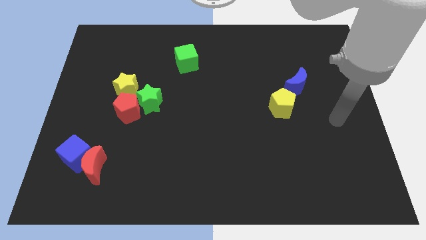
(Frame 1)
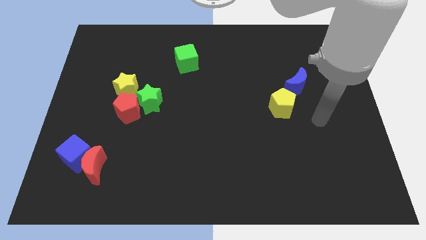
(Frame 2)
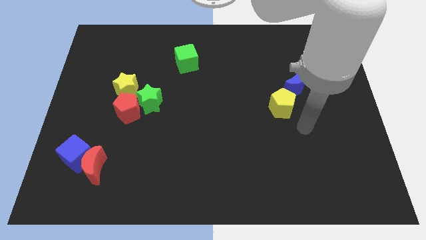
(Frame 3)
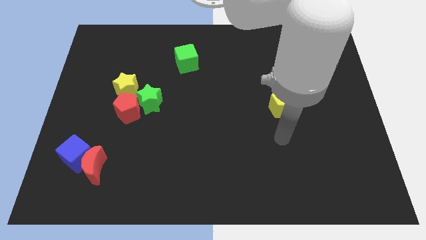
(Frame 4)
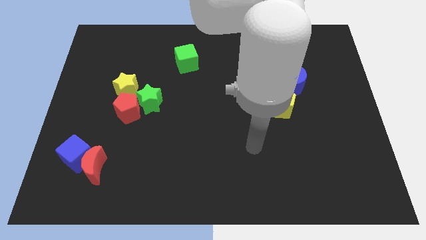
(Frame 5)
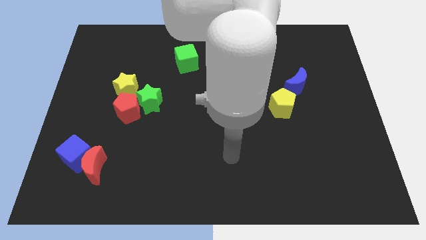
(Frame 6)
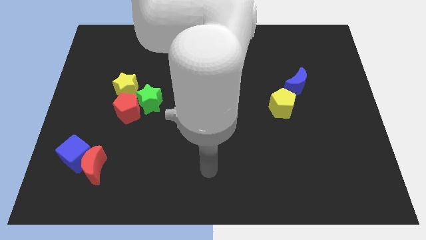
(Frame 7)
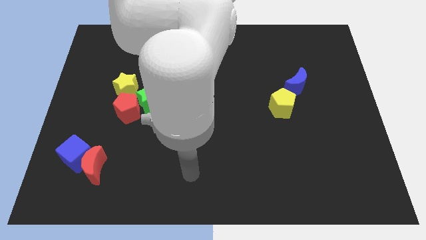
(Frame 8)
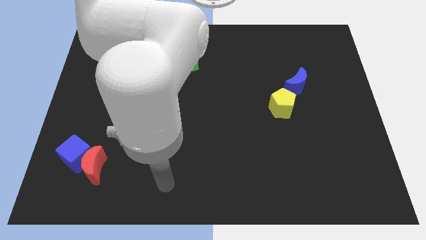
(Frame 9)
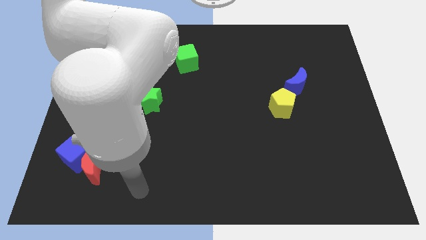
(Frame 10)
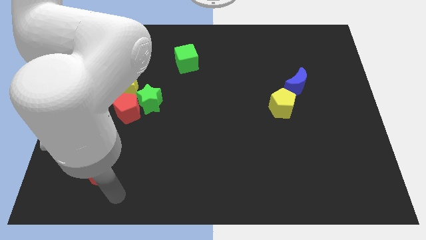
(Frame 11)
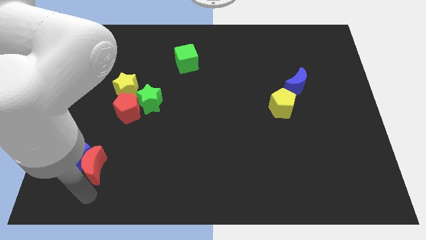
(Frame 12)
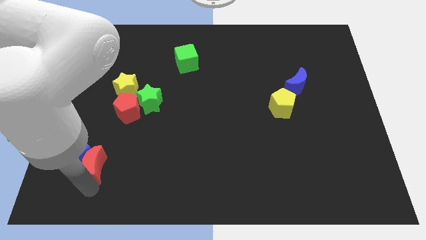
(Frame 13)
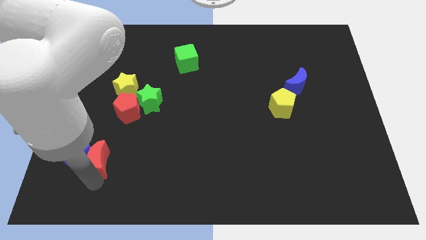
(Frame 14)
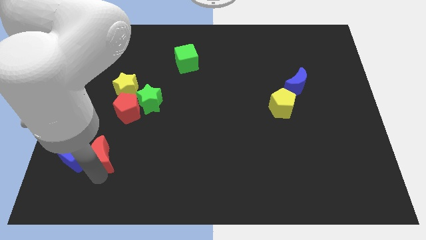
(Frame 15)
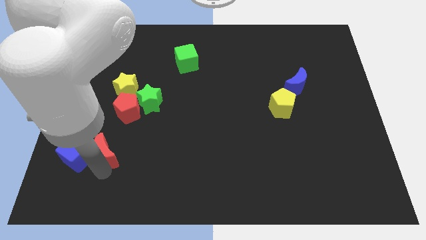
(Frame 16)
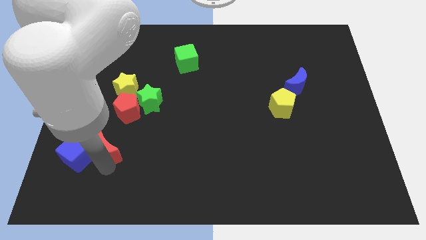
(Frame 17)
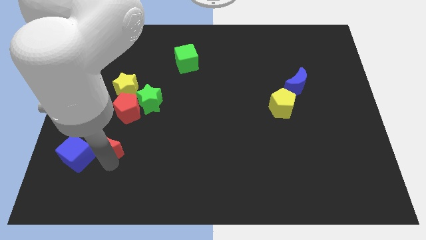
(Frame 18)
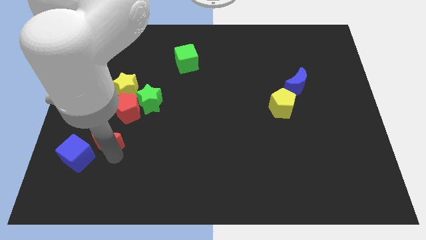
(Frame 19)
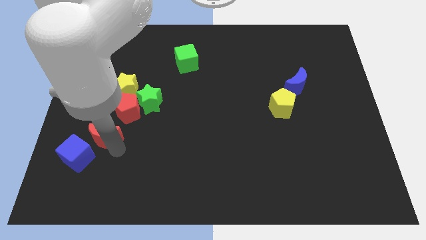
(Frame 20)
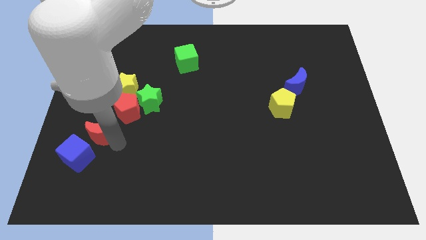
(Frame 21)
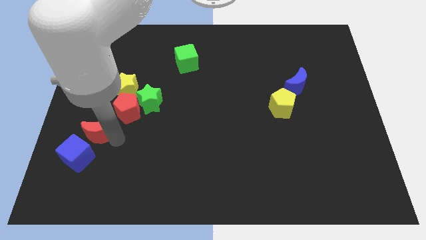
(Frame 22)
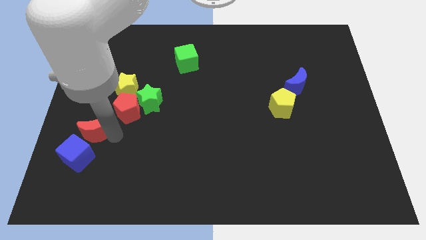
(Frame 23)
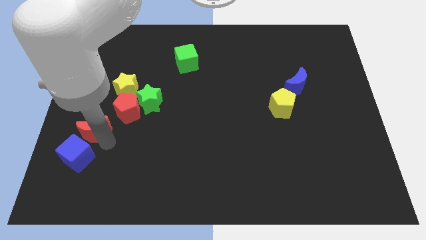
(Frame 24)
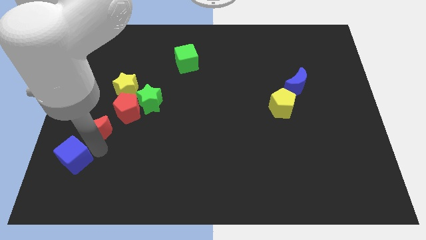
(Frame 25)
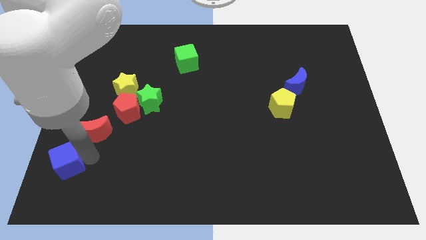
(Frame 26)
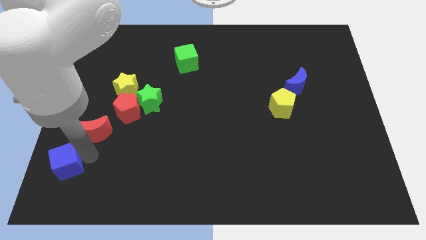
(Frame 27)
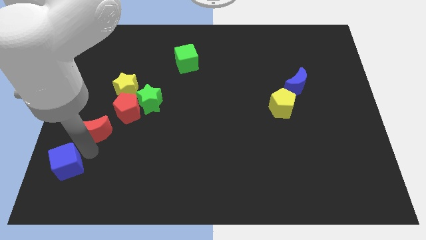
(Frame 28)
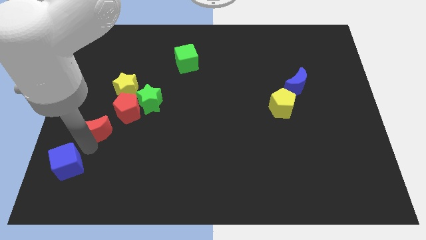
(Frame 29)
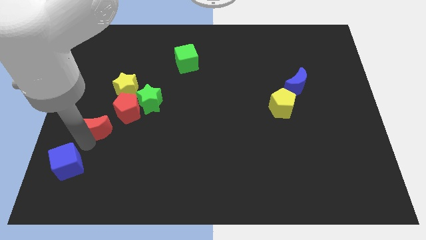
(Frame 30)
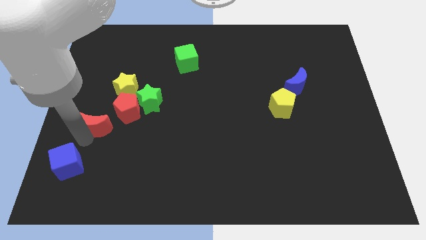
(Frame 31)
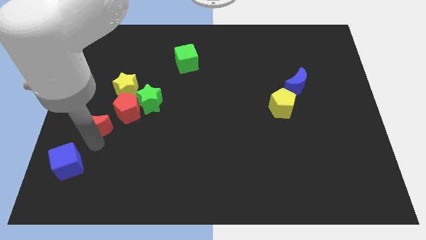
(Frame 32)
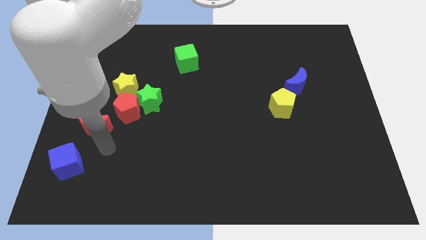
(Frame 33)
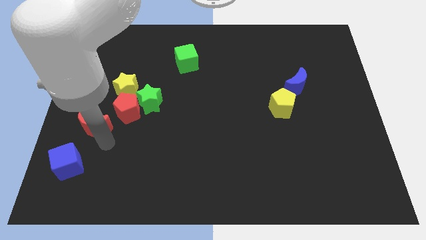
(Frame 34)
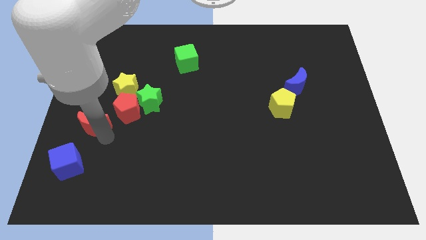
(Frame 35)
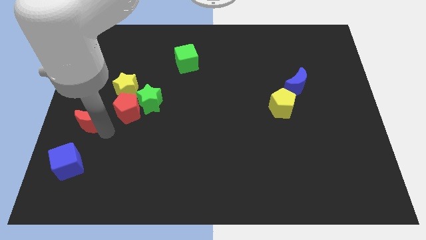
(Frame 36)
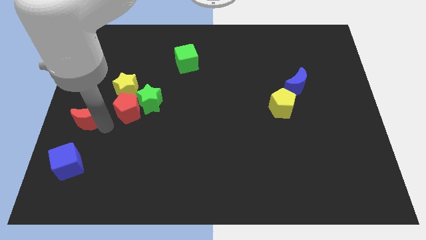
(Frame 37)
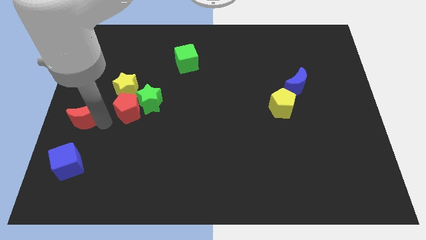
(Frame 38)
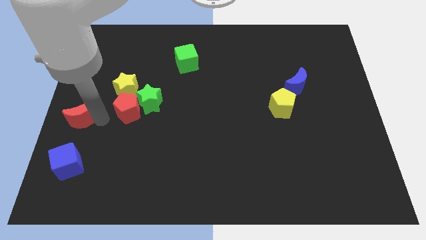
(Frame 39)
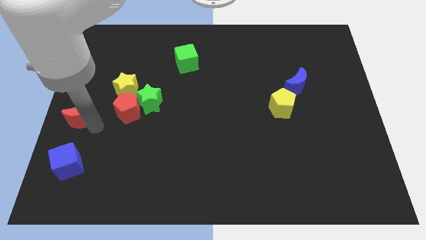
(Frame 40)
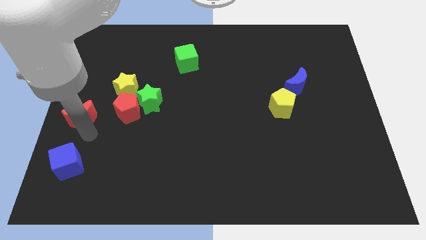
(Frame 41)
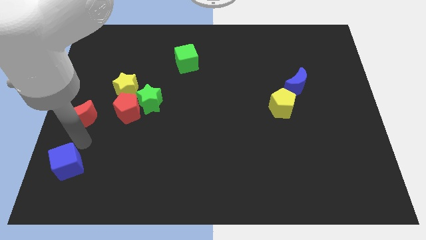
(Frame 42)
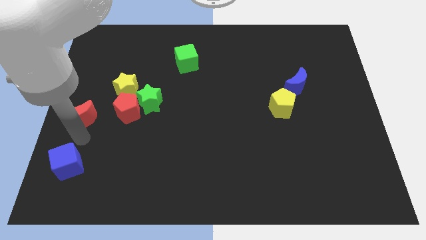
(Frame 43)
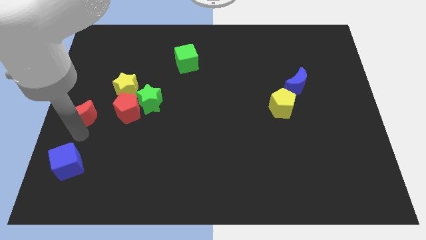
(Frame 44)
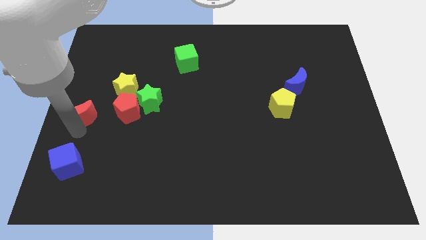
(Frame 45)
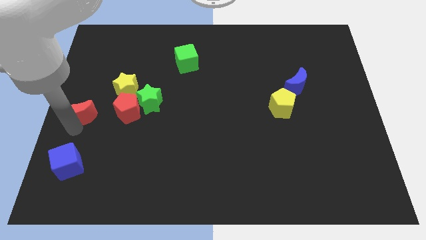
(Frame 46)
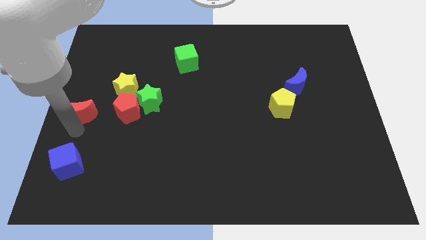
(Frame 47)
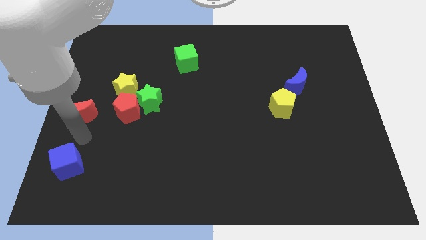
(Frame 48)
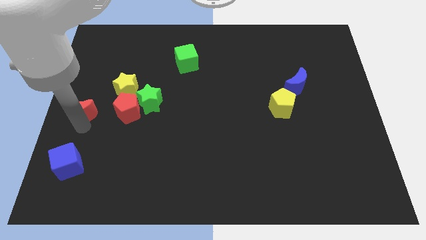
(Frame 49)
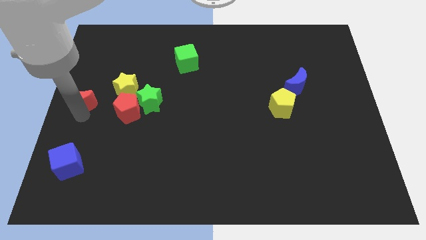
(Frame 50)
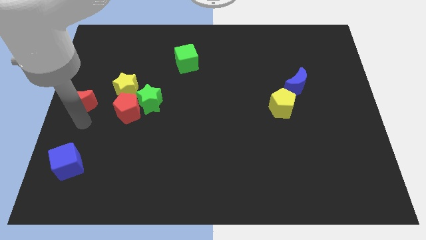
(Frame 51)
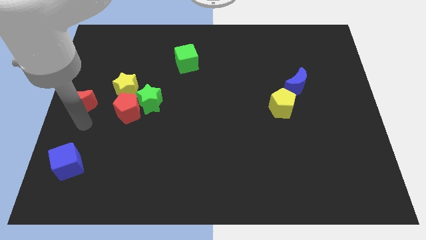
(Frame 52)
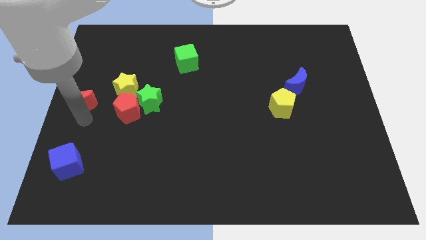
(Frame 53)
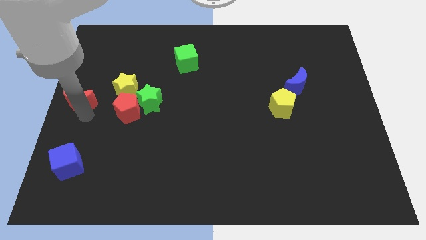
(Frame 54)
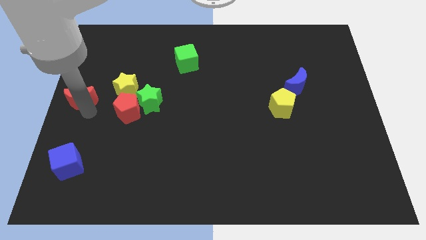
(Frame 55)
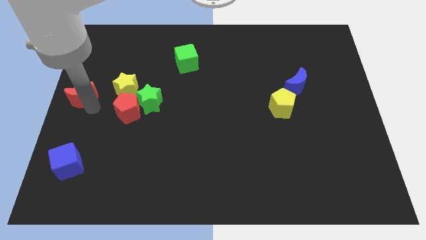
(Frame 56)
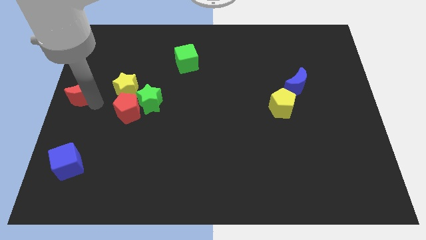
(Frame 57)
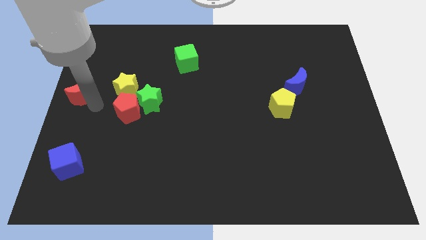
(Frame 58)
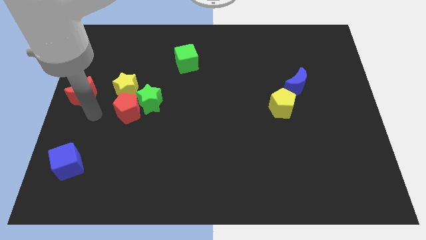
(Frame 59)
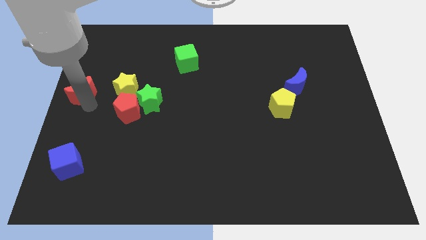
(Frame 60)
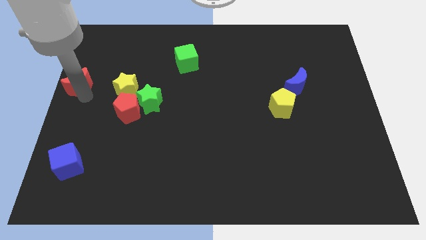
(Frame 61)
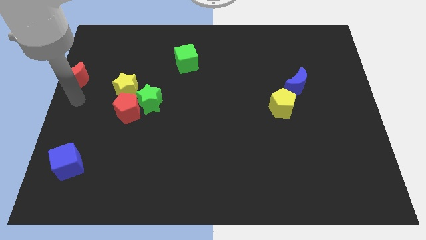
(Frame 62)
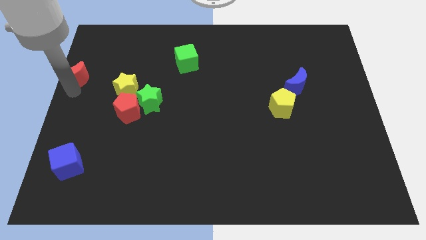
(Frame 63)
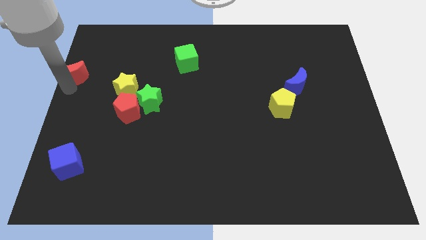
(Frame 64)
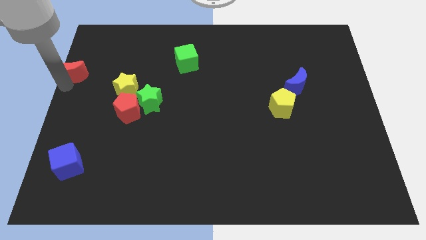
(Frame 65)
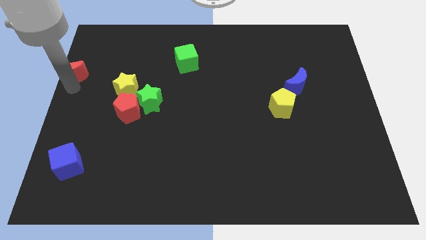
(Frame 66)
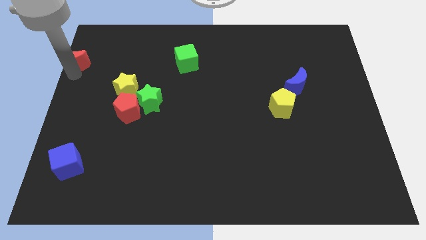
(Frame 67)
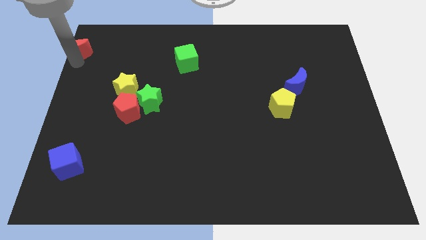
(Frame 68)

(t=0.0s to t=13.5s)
put the red moon to the upper left corner
